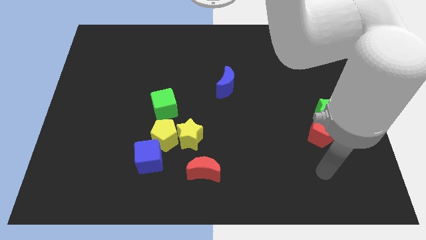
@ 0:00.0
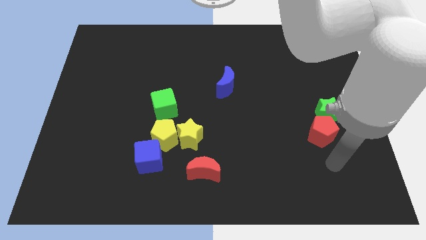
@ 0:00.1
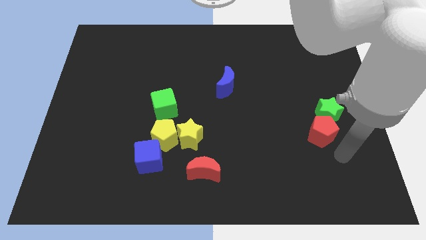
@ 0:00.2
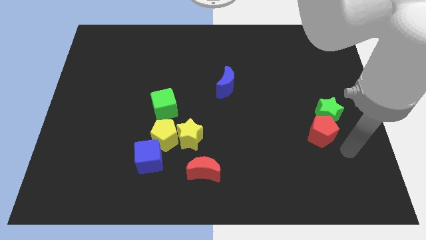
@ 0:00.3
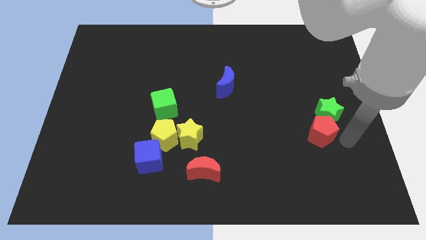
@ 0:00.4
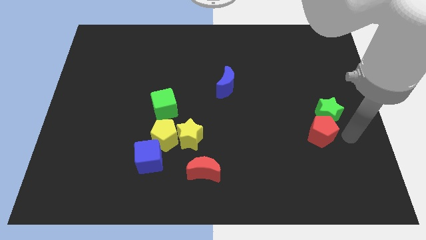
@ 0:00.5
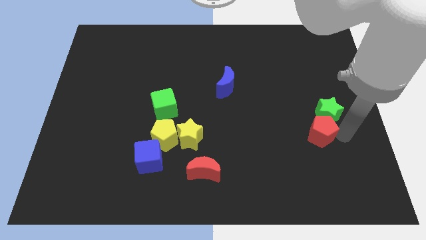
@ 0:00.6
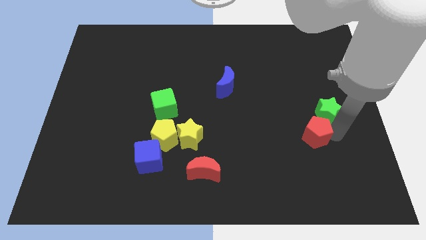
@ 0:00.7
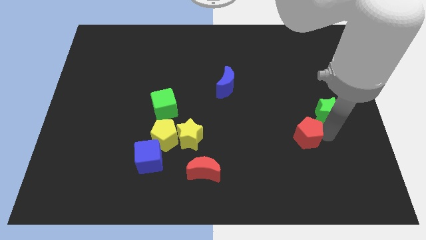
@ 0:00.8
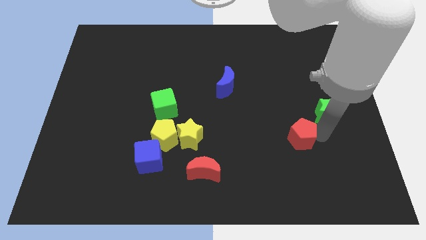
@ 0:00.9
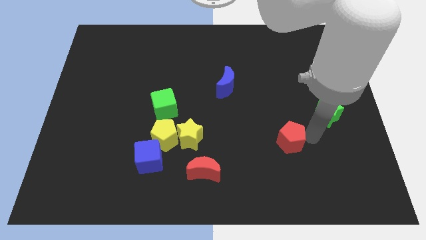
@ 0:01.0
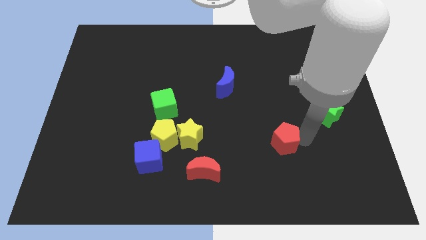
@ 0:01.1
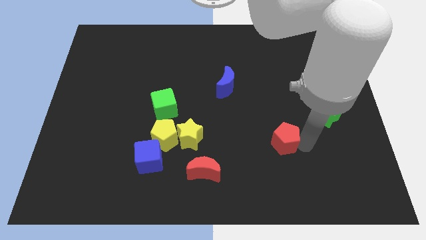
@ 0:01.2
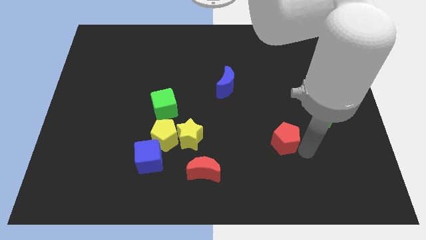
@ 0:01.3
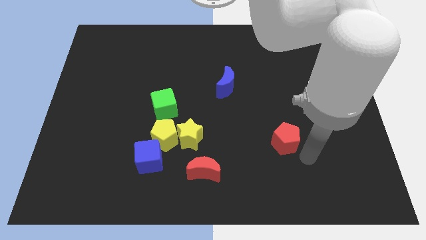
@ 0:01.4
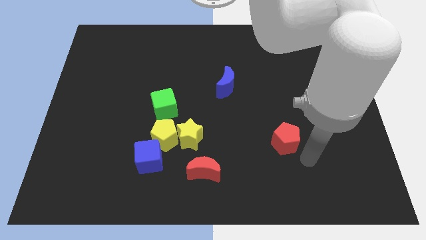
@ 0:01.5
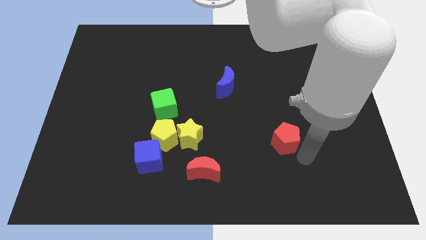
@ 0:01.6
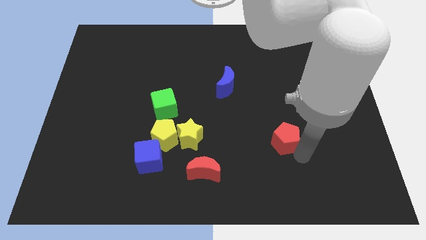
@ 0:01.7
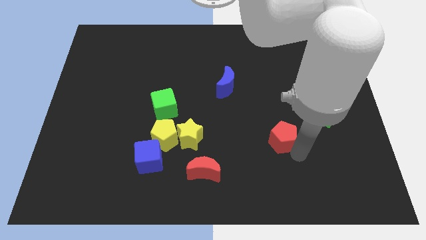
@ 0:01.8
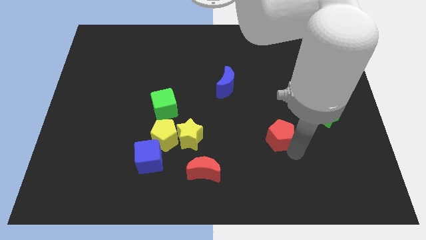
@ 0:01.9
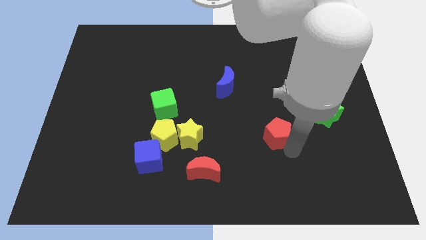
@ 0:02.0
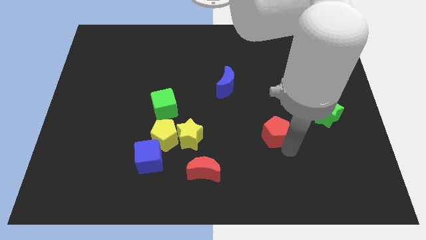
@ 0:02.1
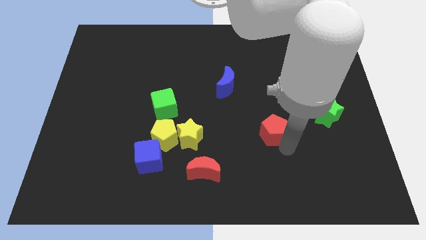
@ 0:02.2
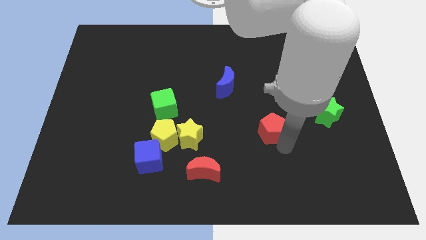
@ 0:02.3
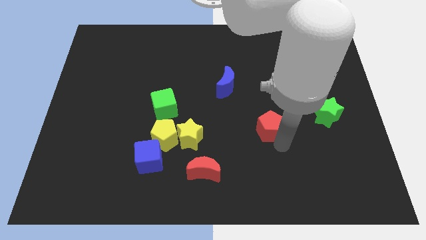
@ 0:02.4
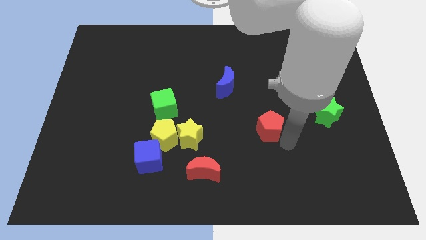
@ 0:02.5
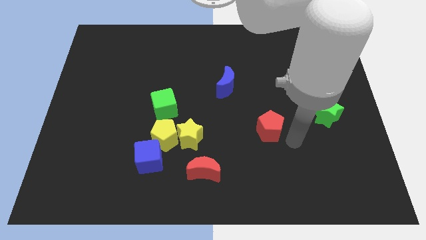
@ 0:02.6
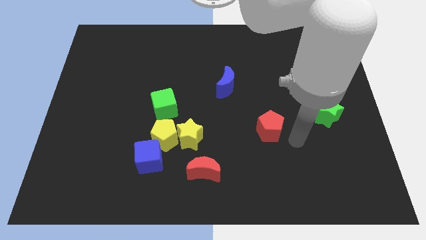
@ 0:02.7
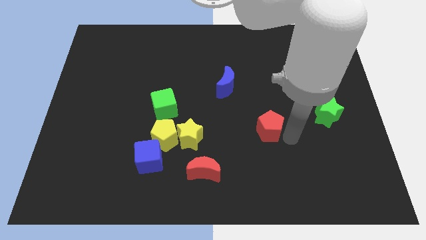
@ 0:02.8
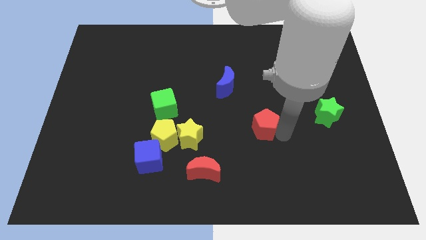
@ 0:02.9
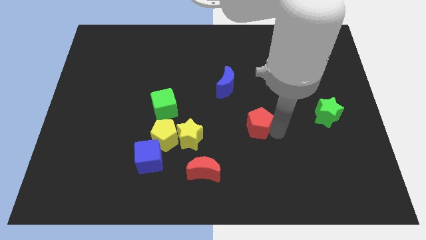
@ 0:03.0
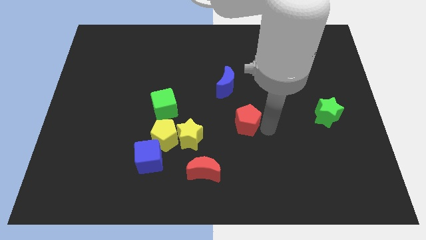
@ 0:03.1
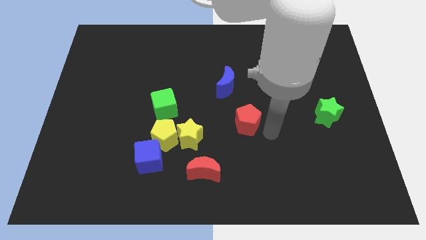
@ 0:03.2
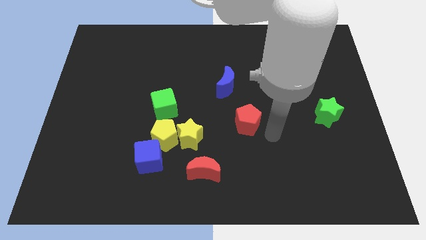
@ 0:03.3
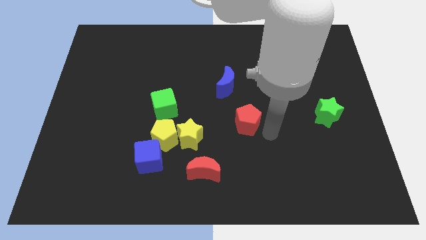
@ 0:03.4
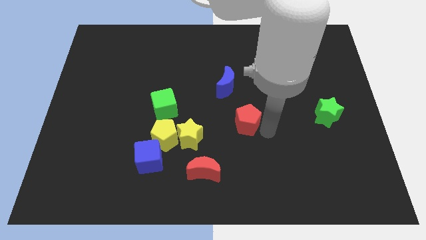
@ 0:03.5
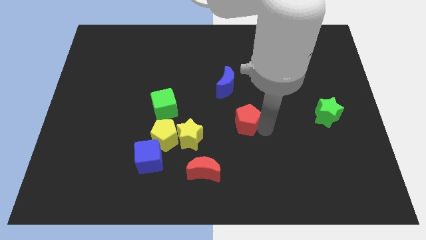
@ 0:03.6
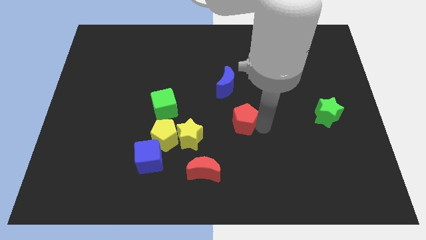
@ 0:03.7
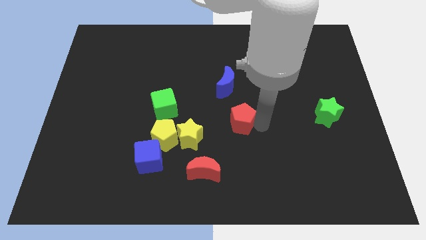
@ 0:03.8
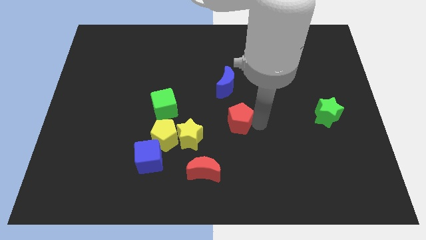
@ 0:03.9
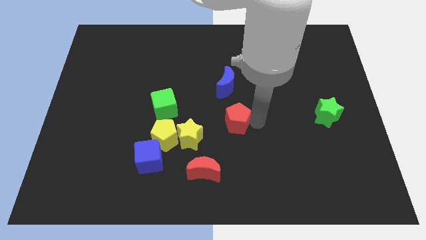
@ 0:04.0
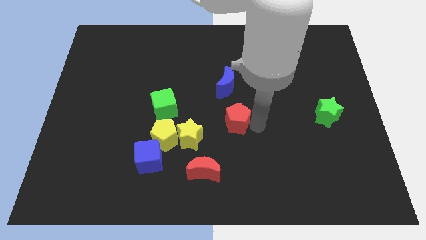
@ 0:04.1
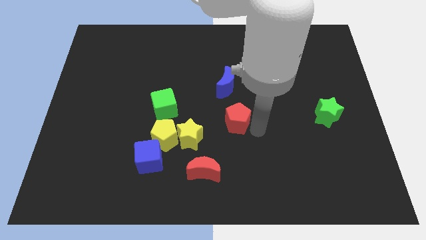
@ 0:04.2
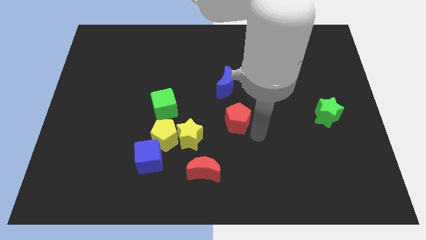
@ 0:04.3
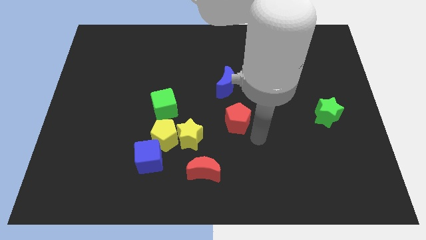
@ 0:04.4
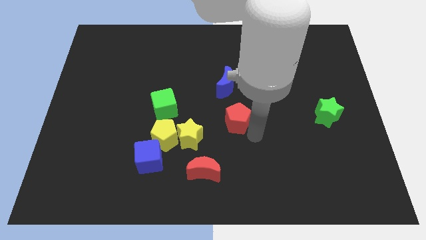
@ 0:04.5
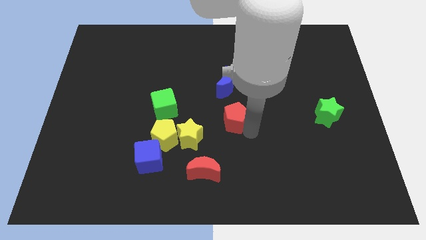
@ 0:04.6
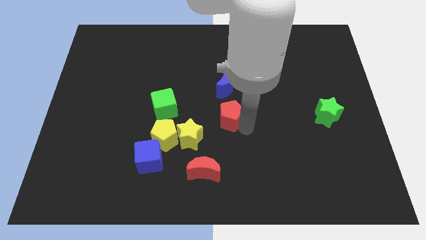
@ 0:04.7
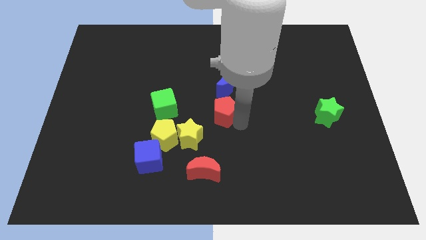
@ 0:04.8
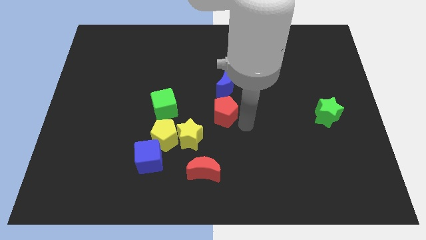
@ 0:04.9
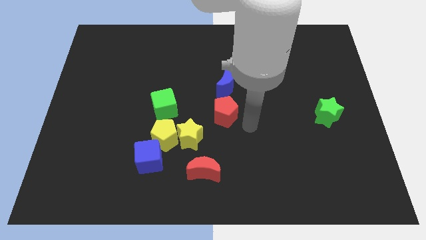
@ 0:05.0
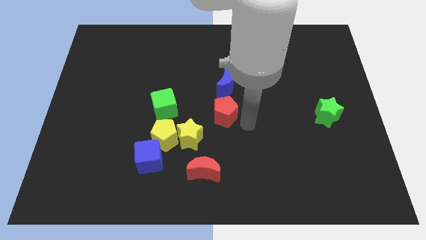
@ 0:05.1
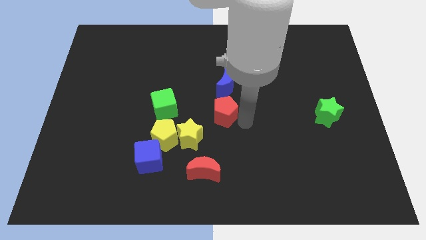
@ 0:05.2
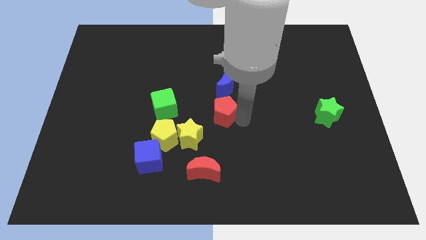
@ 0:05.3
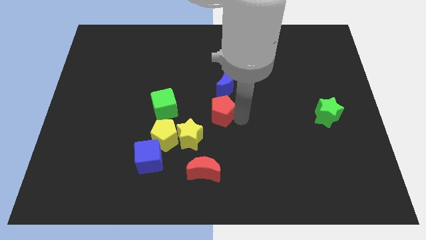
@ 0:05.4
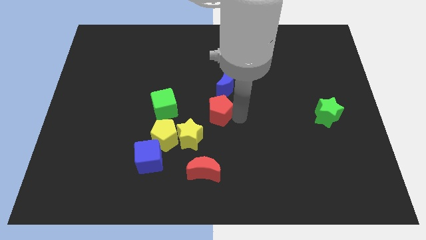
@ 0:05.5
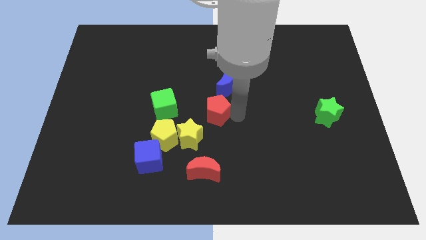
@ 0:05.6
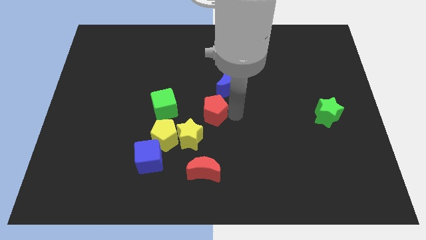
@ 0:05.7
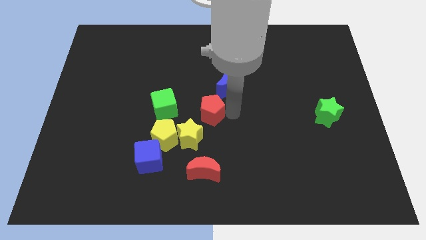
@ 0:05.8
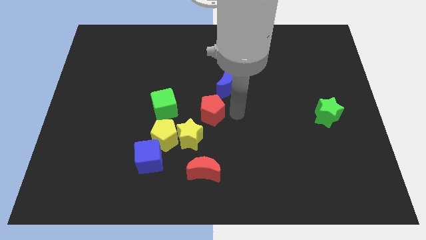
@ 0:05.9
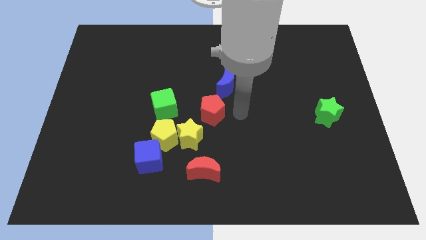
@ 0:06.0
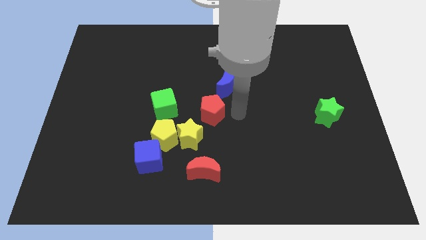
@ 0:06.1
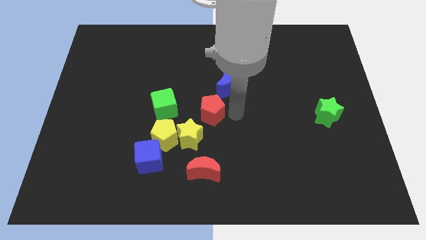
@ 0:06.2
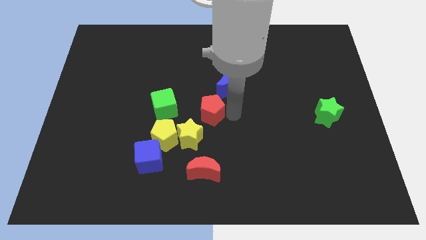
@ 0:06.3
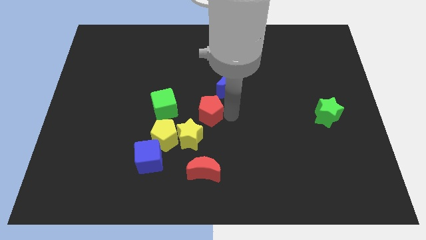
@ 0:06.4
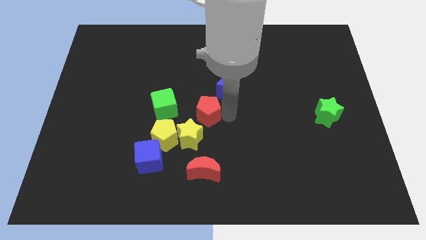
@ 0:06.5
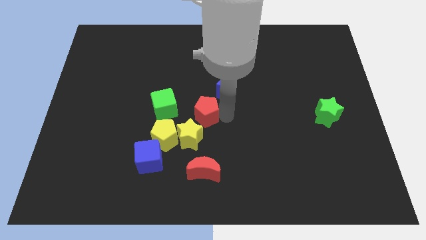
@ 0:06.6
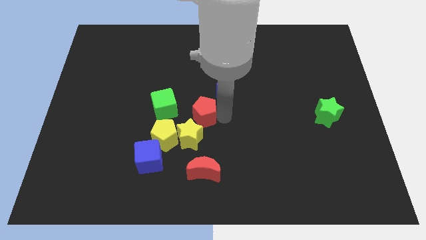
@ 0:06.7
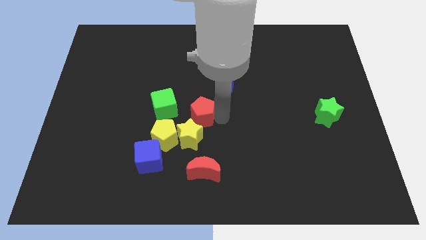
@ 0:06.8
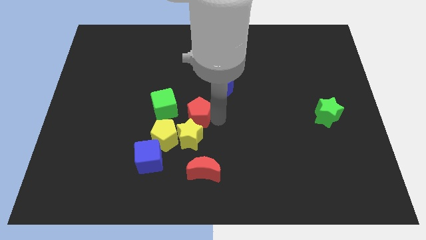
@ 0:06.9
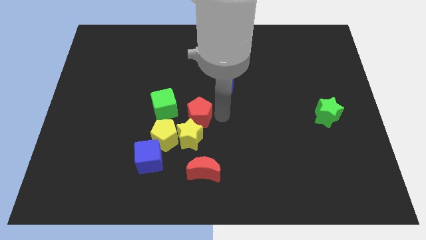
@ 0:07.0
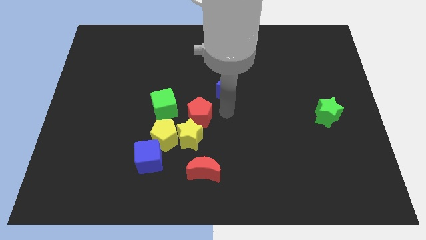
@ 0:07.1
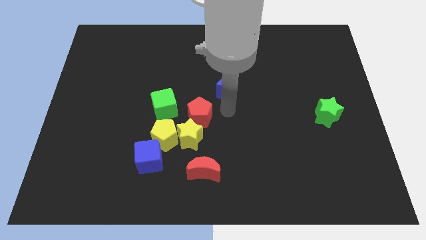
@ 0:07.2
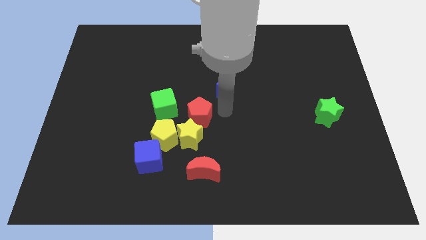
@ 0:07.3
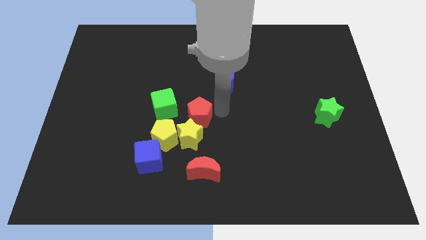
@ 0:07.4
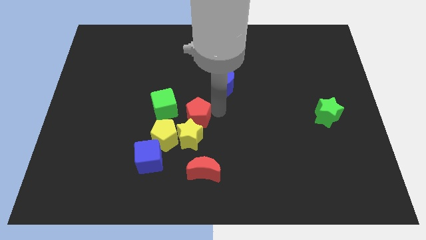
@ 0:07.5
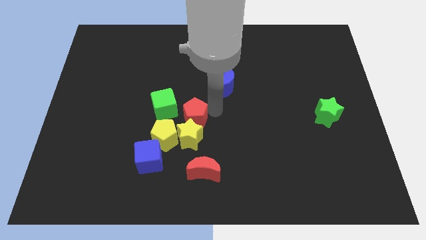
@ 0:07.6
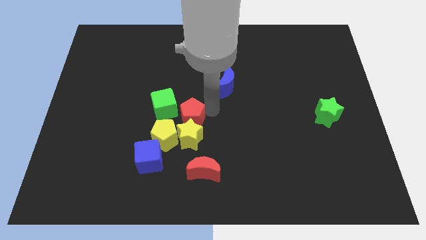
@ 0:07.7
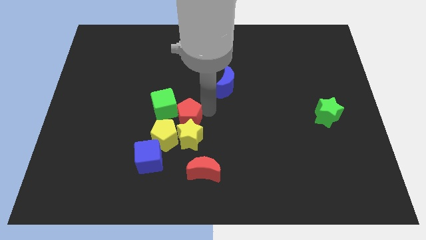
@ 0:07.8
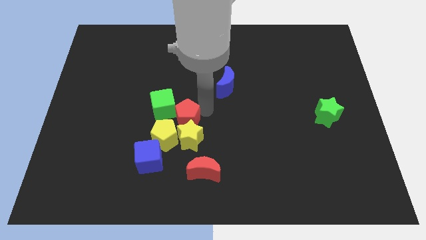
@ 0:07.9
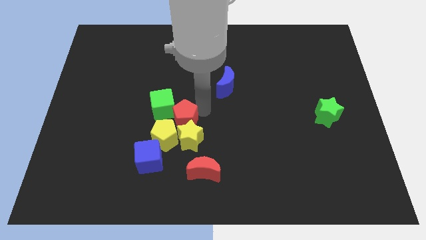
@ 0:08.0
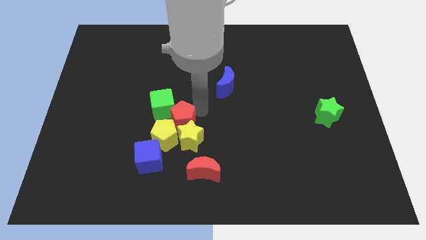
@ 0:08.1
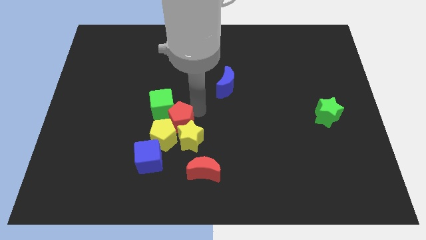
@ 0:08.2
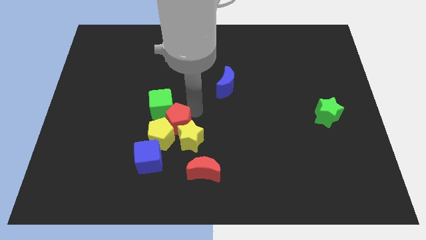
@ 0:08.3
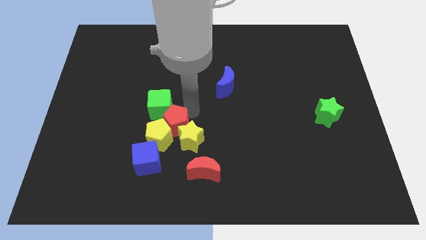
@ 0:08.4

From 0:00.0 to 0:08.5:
slide the red pentagon to the left side of the yellow star
